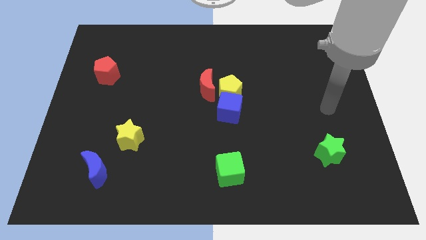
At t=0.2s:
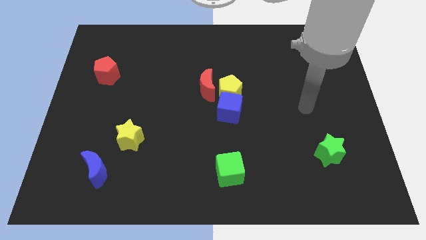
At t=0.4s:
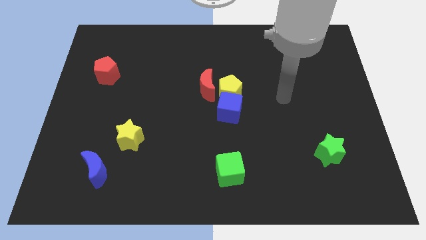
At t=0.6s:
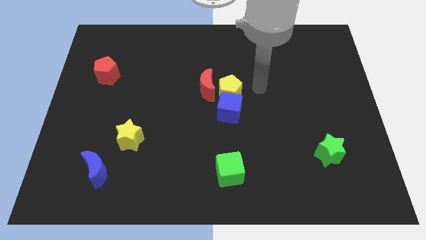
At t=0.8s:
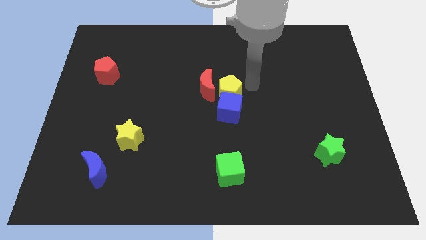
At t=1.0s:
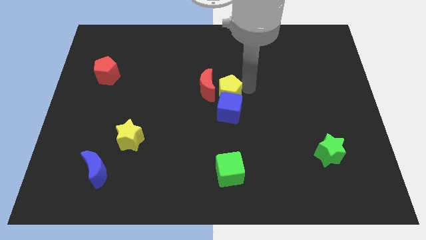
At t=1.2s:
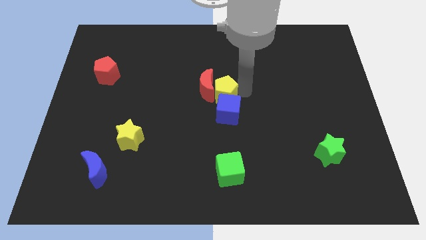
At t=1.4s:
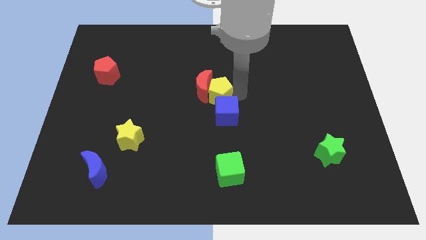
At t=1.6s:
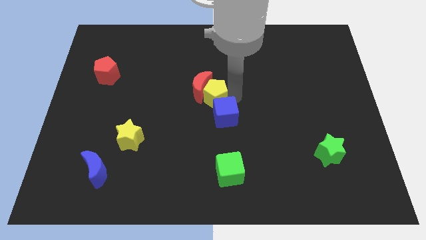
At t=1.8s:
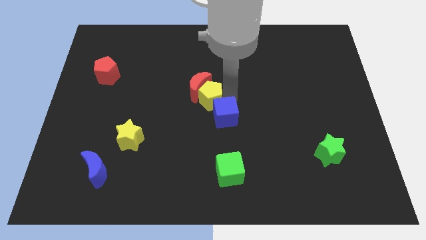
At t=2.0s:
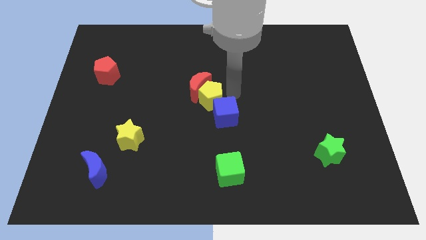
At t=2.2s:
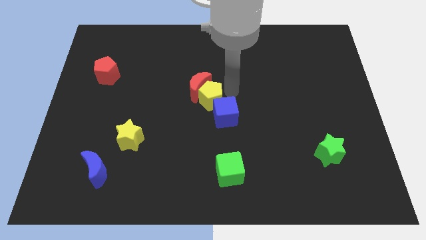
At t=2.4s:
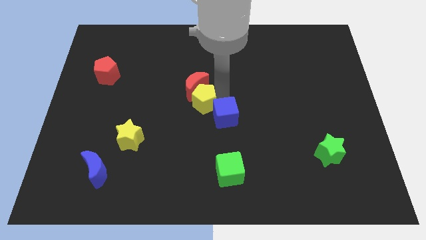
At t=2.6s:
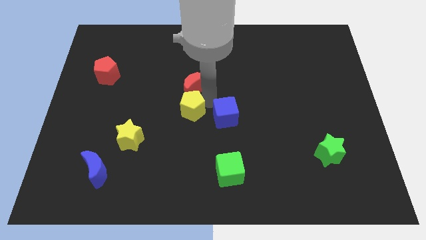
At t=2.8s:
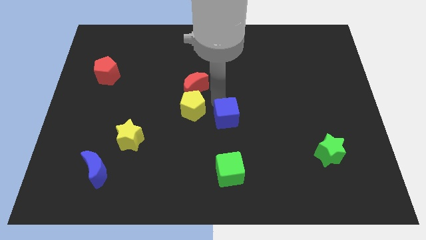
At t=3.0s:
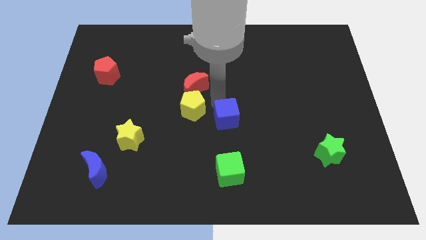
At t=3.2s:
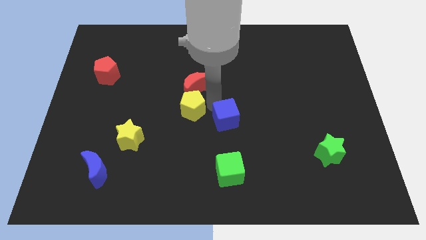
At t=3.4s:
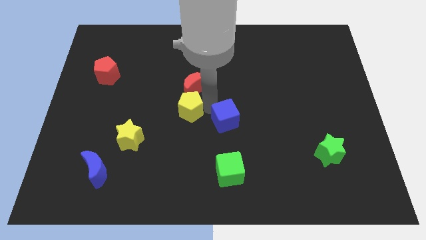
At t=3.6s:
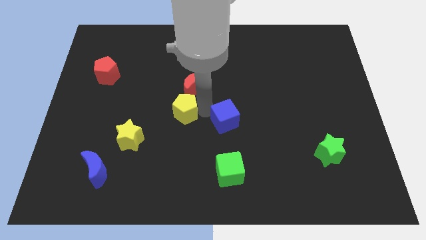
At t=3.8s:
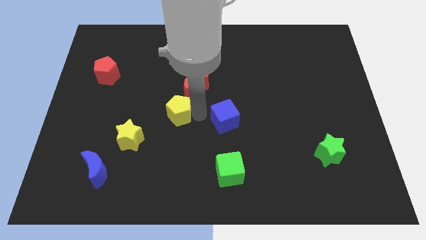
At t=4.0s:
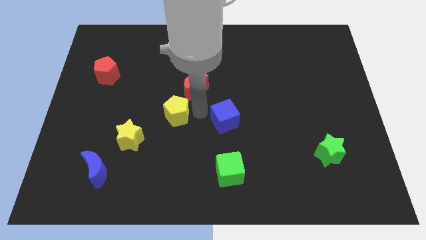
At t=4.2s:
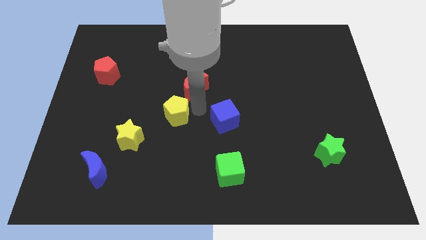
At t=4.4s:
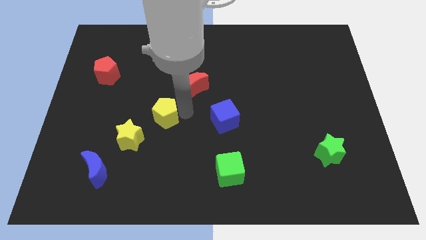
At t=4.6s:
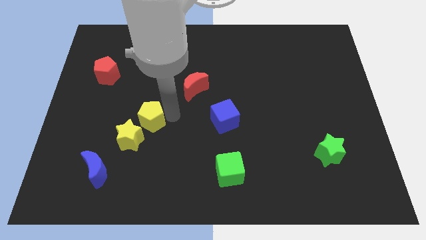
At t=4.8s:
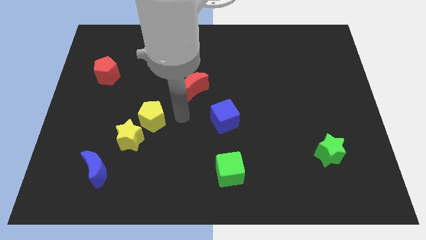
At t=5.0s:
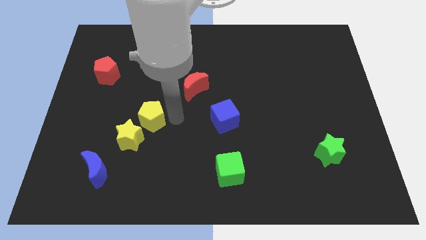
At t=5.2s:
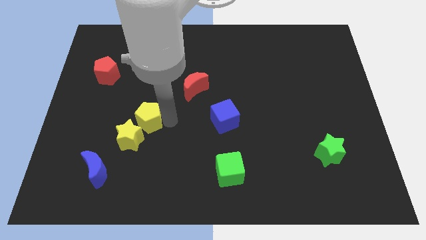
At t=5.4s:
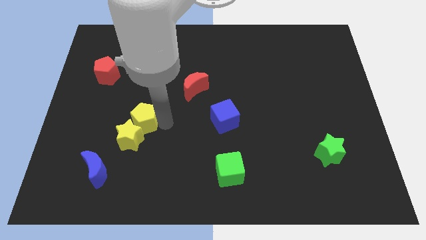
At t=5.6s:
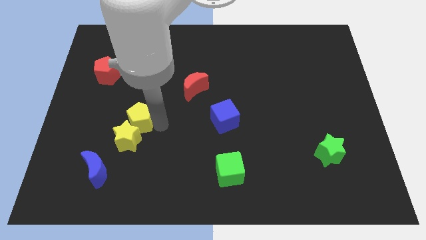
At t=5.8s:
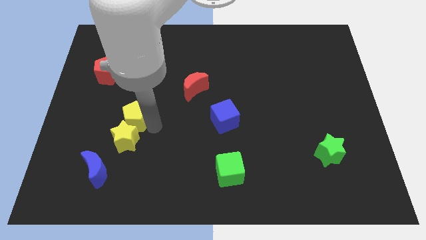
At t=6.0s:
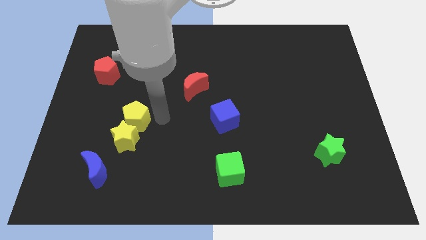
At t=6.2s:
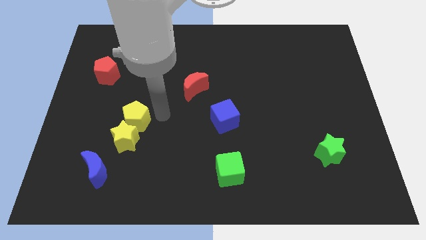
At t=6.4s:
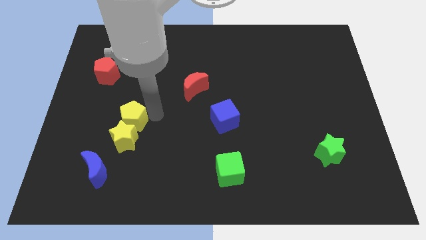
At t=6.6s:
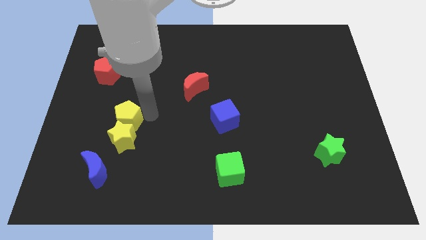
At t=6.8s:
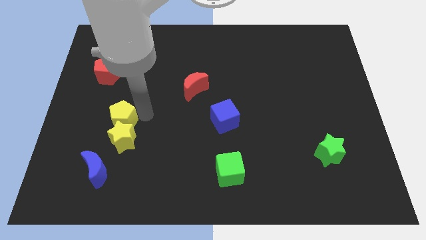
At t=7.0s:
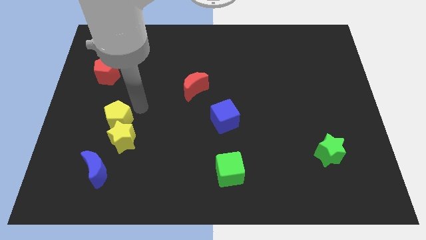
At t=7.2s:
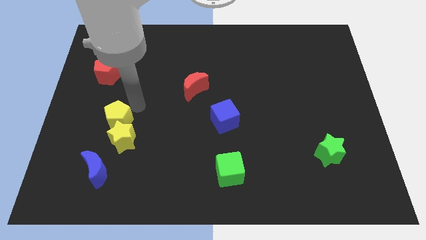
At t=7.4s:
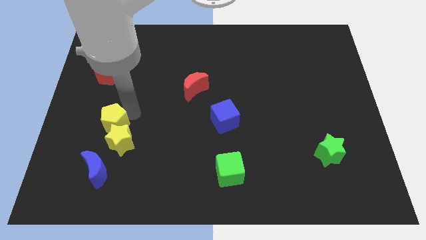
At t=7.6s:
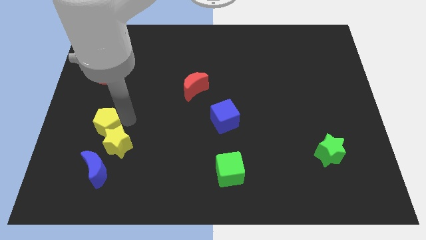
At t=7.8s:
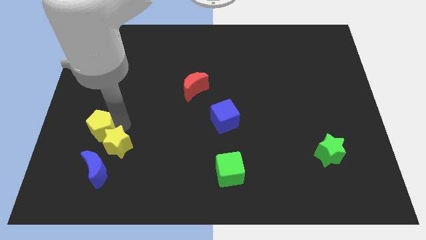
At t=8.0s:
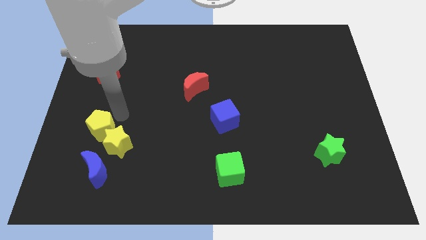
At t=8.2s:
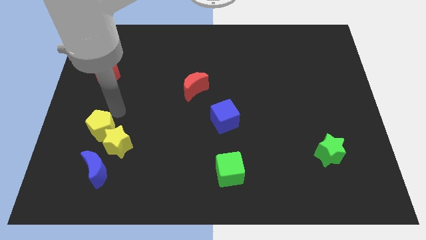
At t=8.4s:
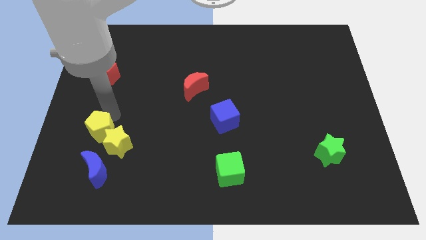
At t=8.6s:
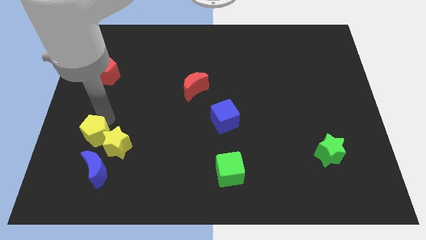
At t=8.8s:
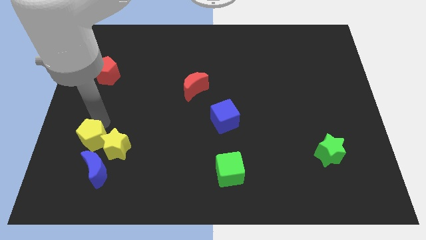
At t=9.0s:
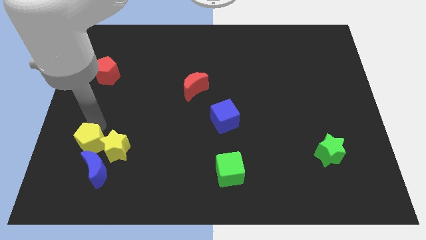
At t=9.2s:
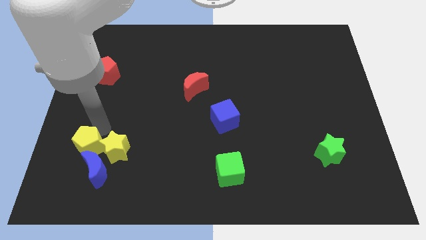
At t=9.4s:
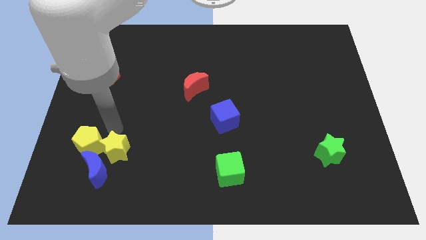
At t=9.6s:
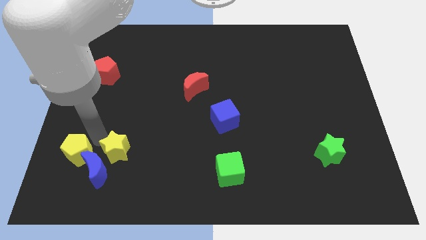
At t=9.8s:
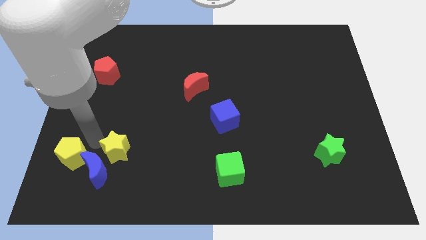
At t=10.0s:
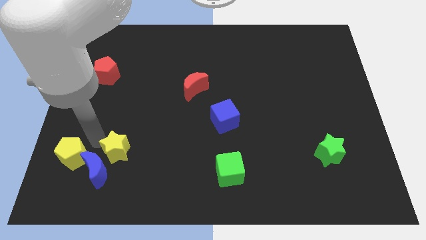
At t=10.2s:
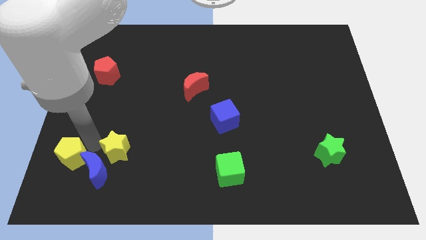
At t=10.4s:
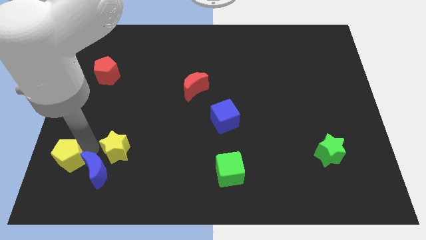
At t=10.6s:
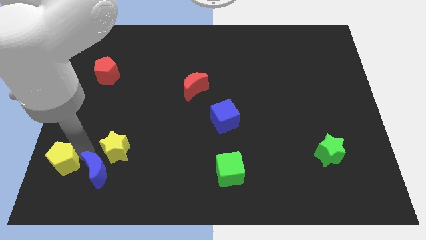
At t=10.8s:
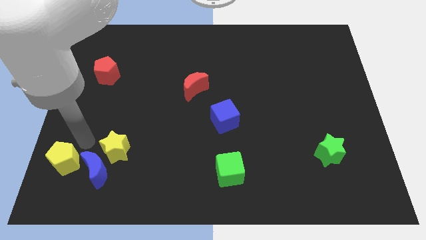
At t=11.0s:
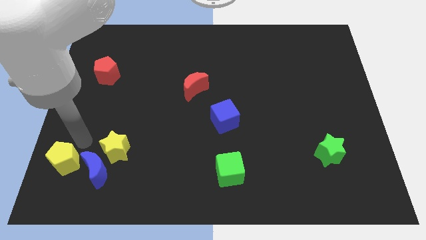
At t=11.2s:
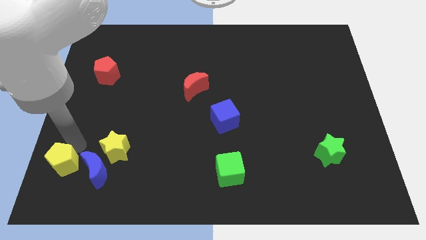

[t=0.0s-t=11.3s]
slide the yellow pentagon to the bottom left

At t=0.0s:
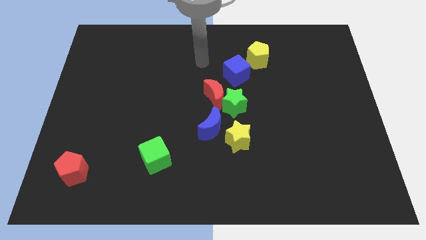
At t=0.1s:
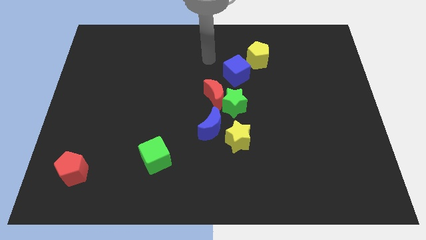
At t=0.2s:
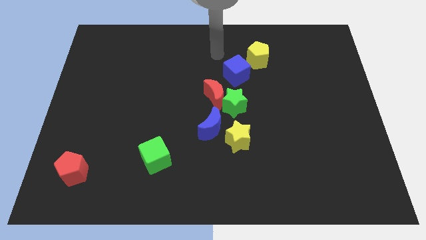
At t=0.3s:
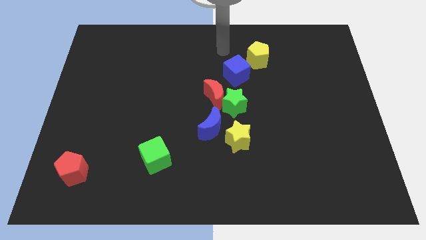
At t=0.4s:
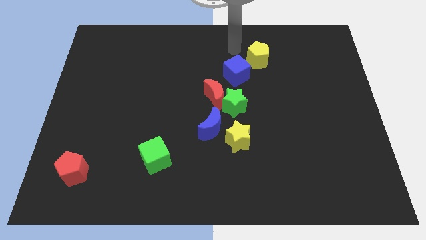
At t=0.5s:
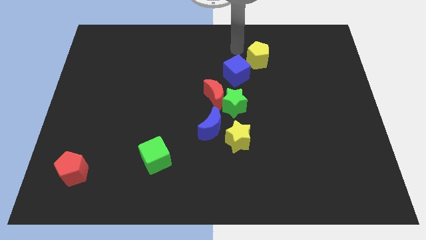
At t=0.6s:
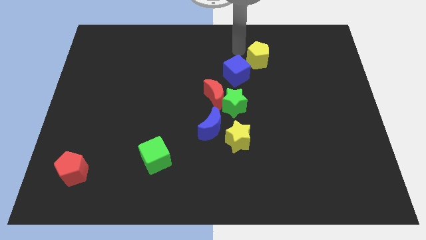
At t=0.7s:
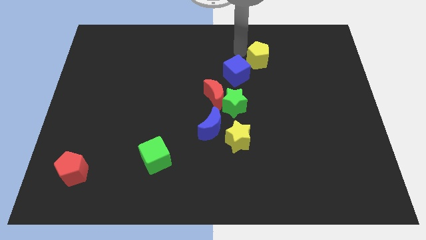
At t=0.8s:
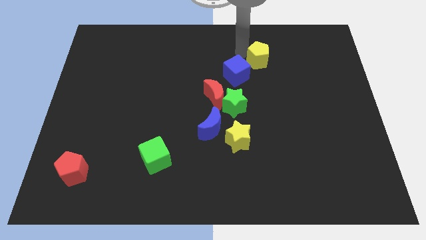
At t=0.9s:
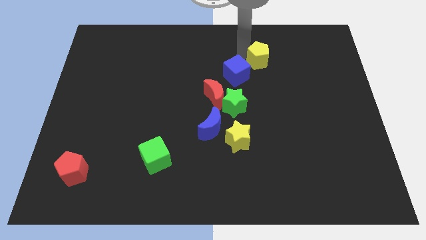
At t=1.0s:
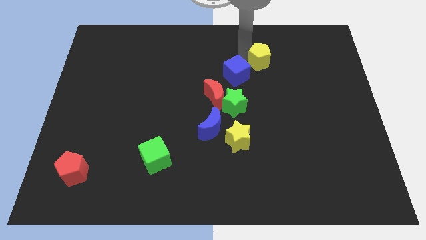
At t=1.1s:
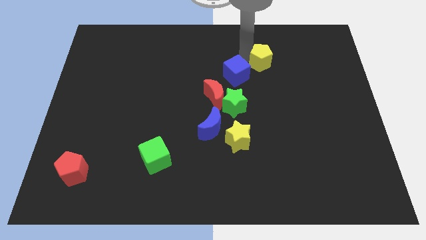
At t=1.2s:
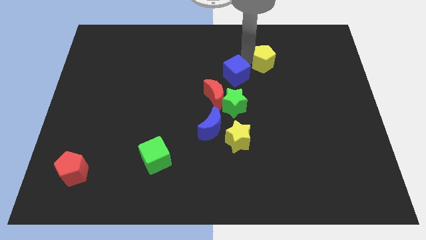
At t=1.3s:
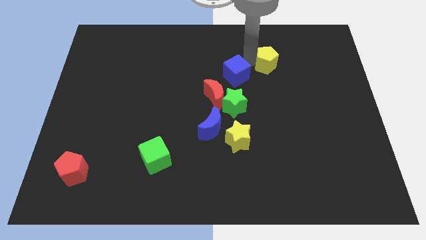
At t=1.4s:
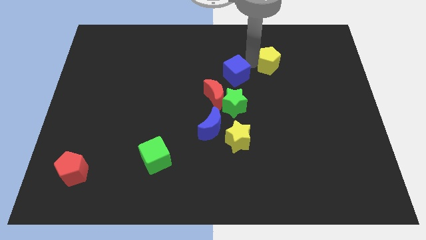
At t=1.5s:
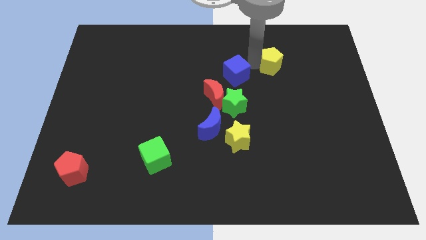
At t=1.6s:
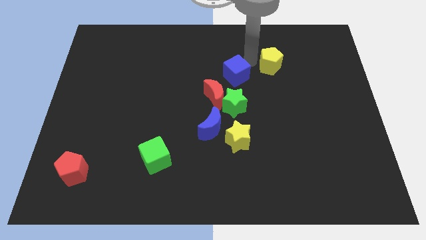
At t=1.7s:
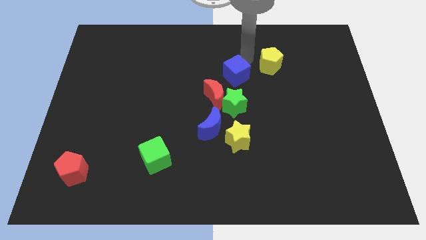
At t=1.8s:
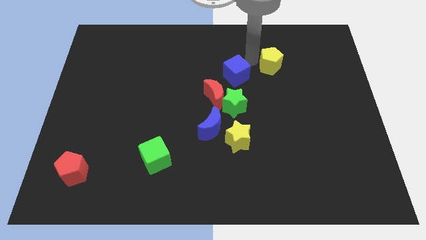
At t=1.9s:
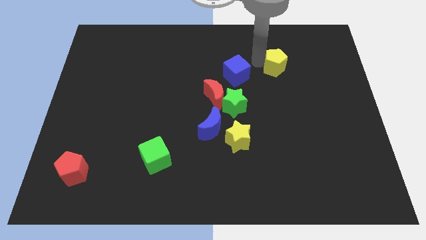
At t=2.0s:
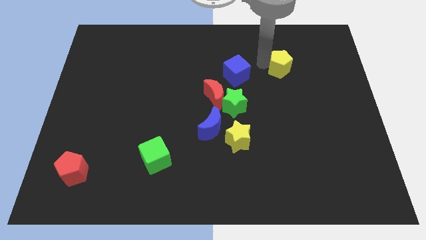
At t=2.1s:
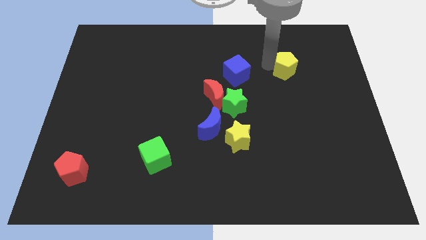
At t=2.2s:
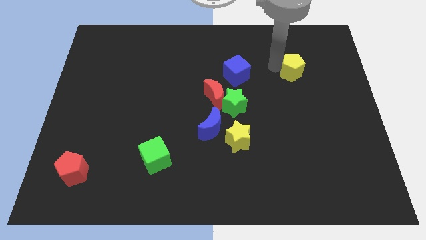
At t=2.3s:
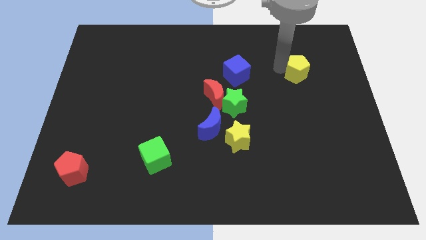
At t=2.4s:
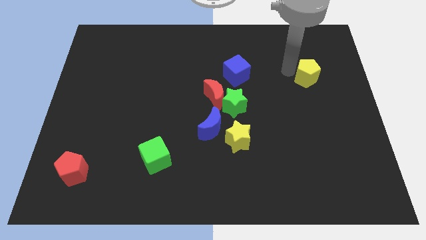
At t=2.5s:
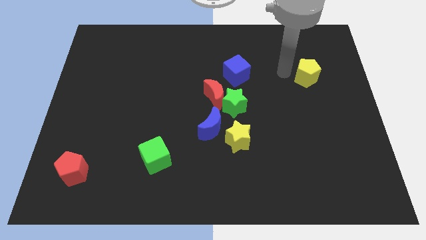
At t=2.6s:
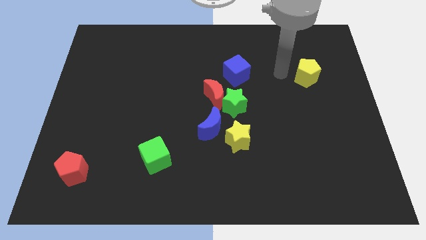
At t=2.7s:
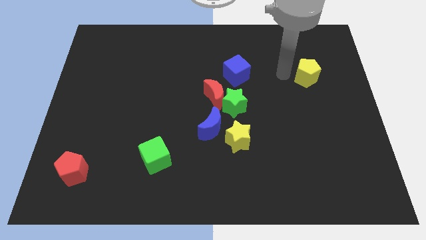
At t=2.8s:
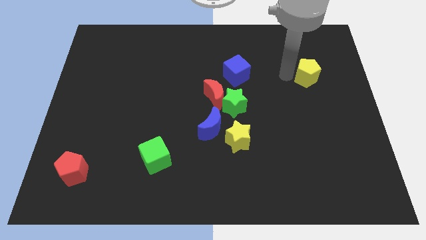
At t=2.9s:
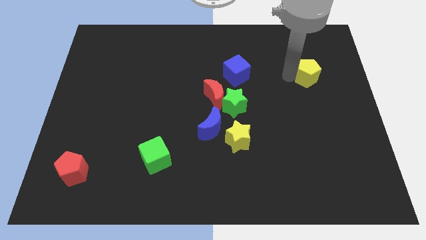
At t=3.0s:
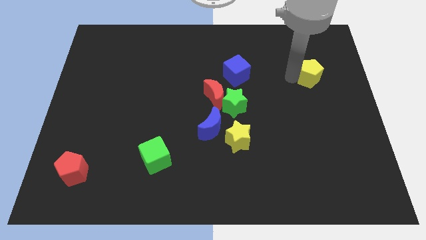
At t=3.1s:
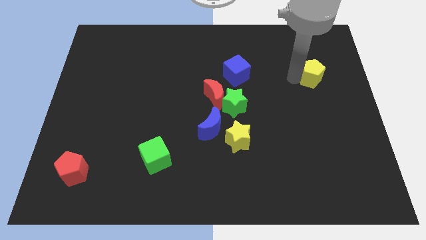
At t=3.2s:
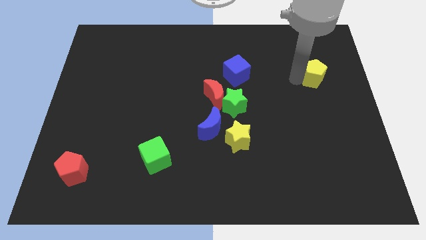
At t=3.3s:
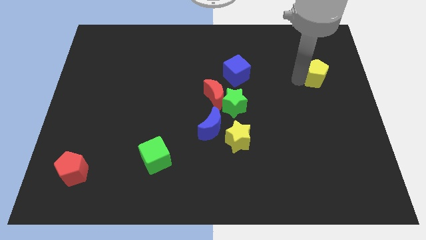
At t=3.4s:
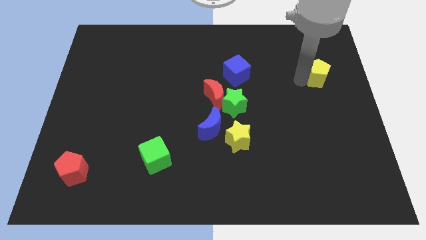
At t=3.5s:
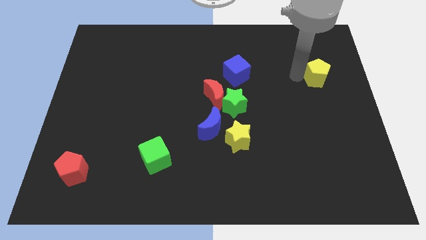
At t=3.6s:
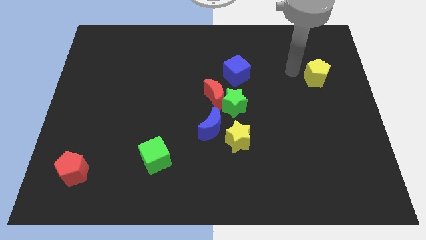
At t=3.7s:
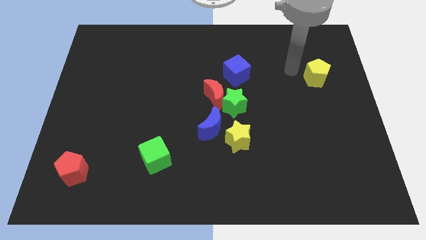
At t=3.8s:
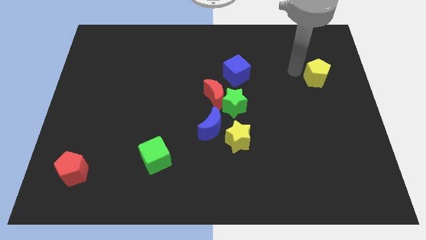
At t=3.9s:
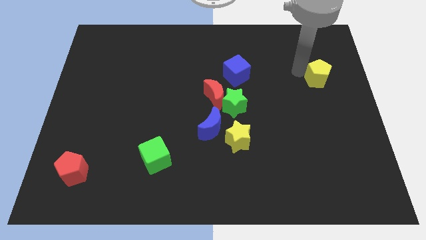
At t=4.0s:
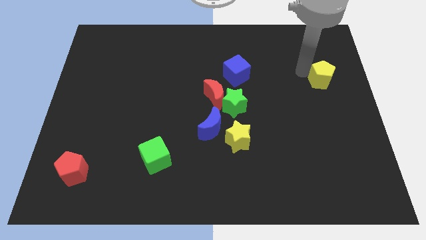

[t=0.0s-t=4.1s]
move the yellow pentagon to the right side of the board
